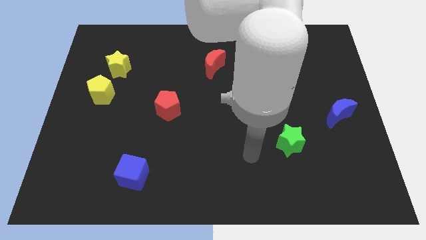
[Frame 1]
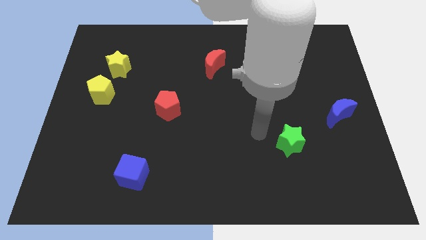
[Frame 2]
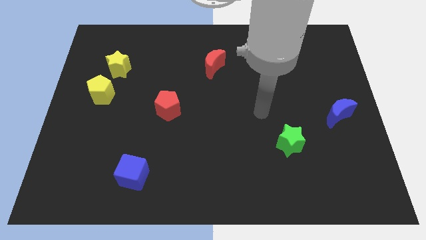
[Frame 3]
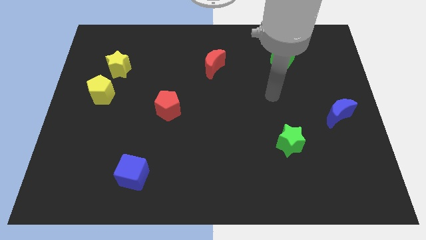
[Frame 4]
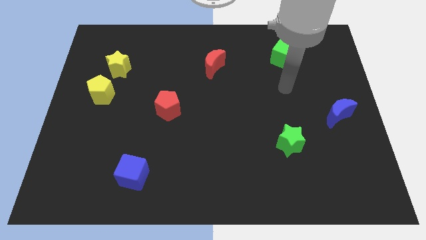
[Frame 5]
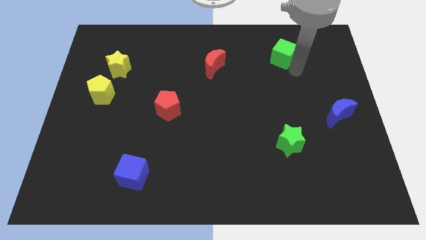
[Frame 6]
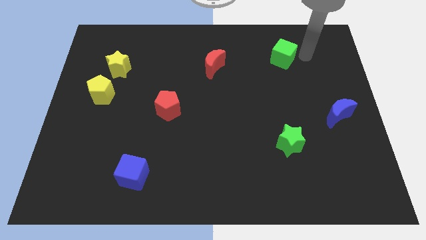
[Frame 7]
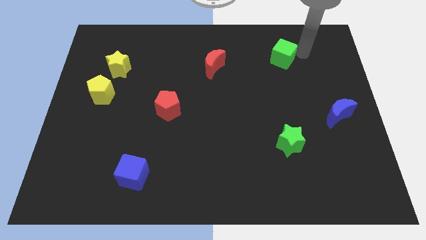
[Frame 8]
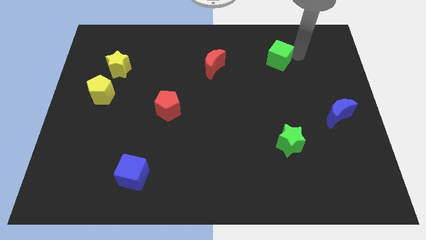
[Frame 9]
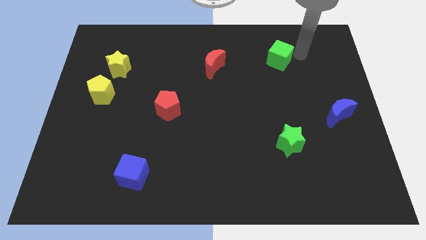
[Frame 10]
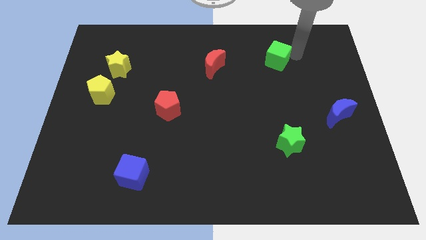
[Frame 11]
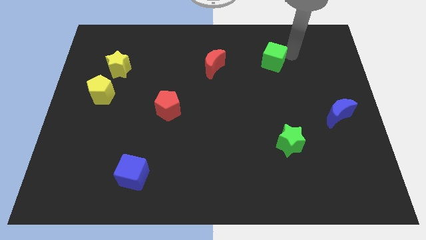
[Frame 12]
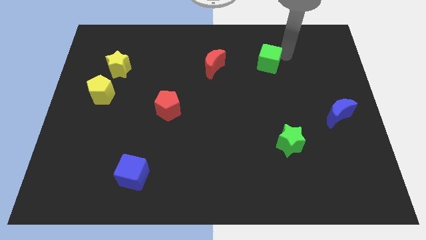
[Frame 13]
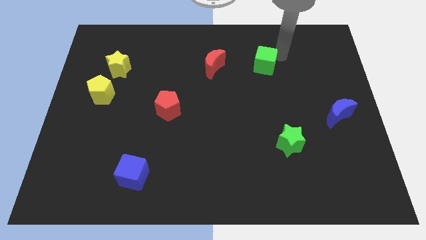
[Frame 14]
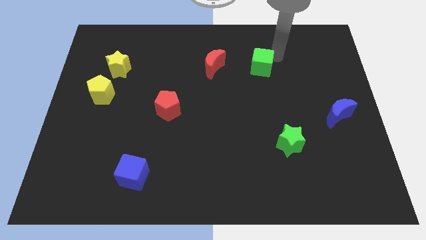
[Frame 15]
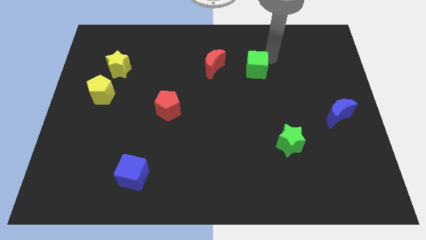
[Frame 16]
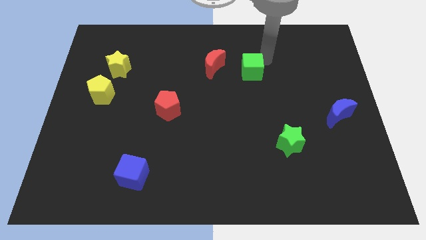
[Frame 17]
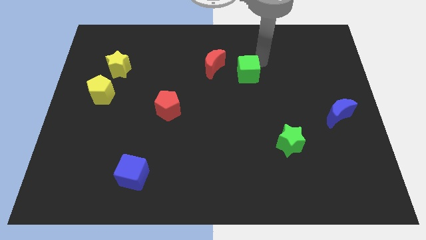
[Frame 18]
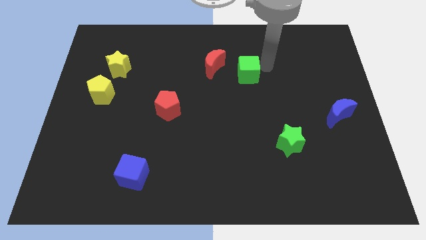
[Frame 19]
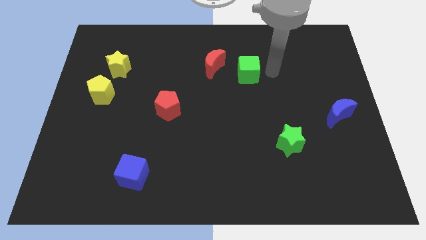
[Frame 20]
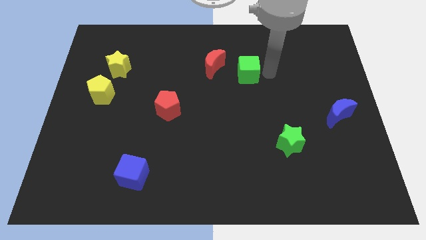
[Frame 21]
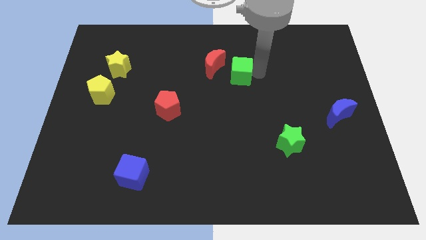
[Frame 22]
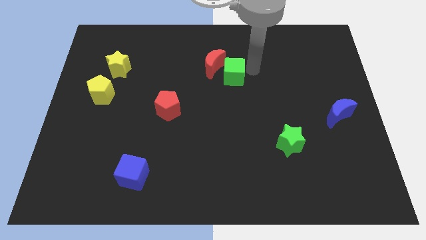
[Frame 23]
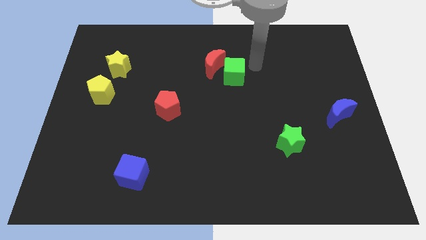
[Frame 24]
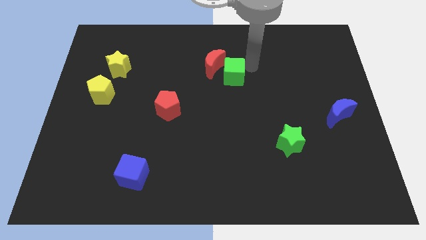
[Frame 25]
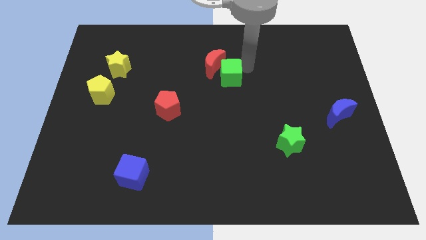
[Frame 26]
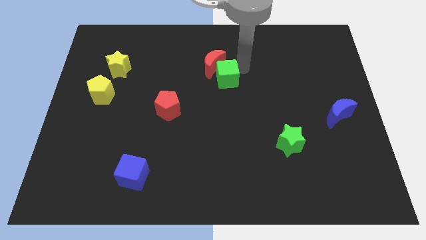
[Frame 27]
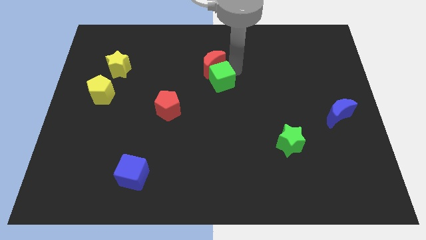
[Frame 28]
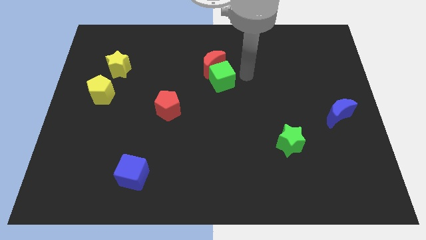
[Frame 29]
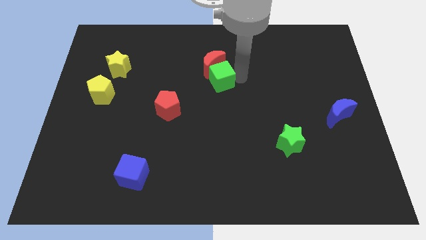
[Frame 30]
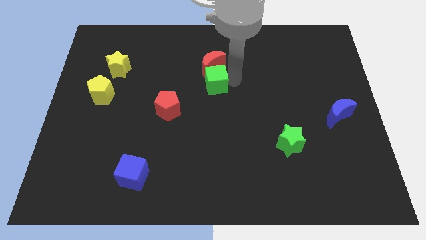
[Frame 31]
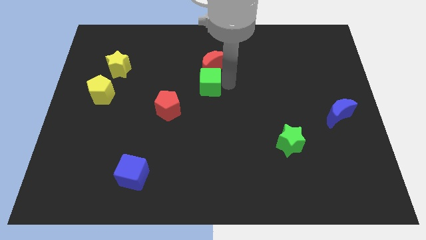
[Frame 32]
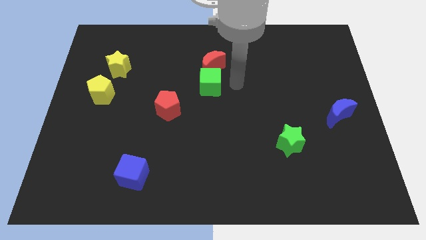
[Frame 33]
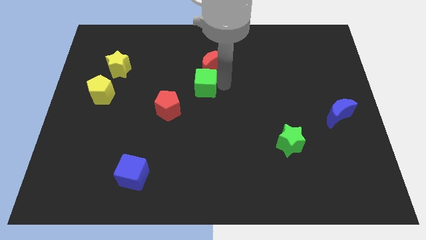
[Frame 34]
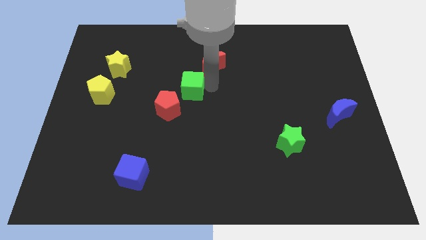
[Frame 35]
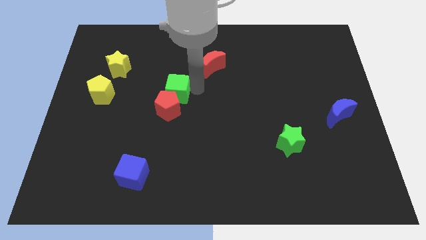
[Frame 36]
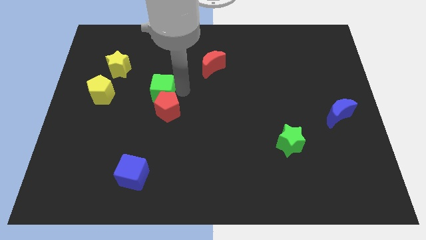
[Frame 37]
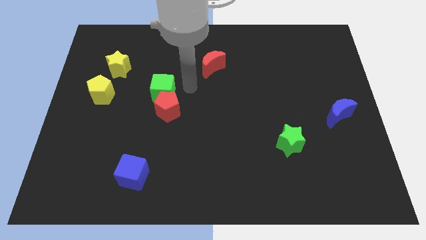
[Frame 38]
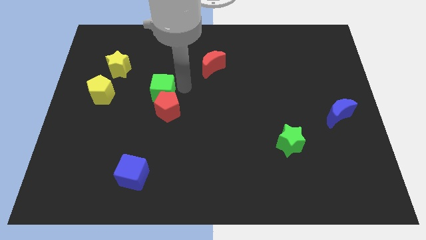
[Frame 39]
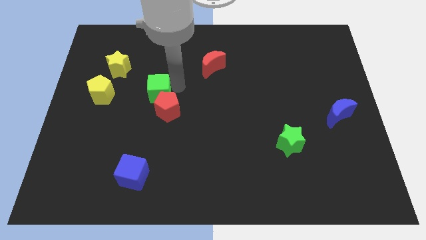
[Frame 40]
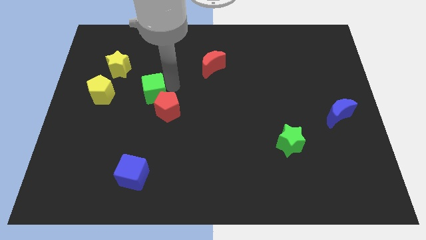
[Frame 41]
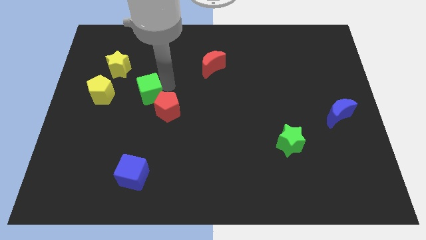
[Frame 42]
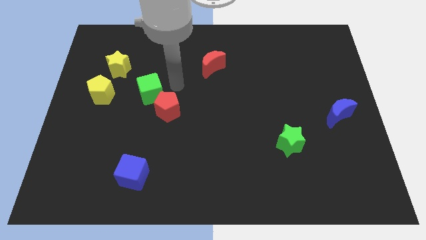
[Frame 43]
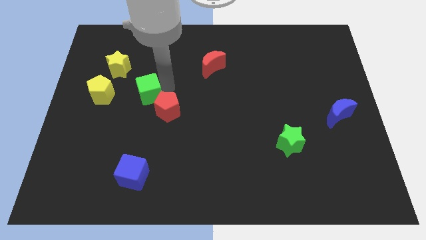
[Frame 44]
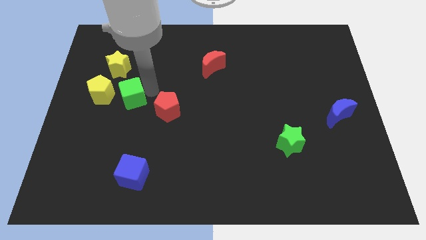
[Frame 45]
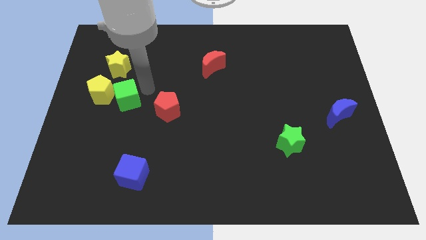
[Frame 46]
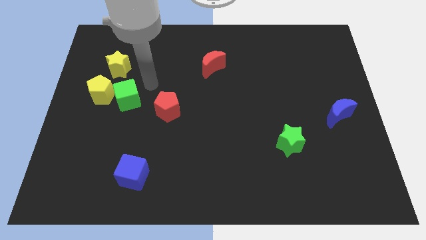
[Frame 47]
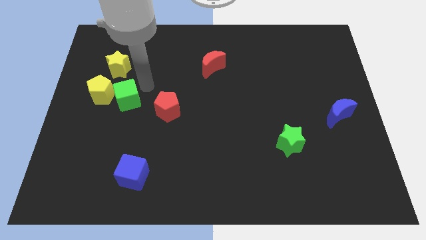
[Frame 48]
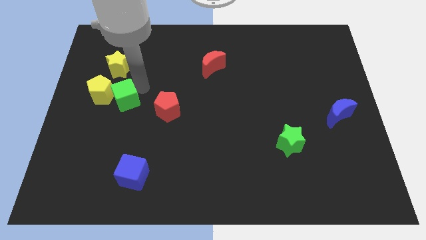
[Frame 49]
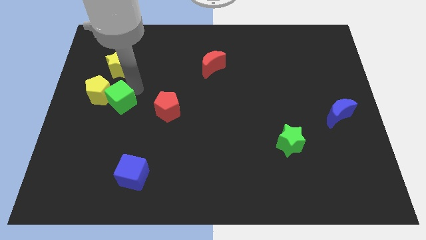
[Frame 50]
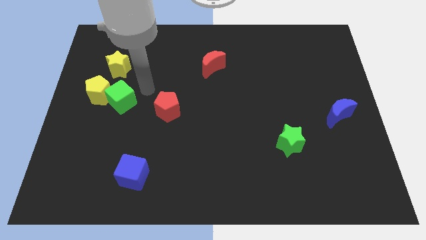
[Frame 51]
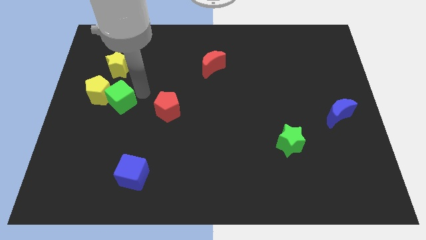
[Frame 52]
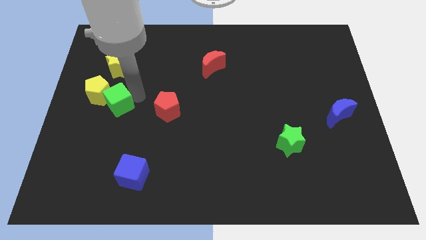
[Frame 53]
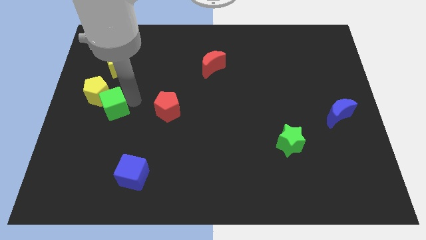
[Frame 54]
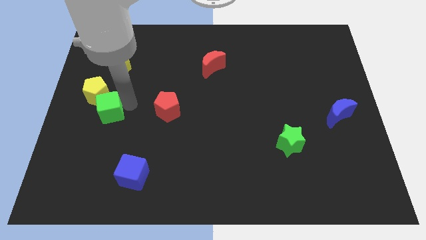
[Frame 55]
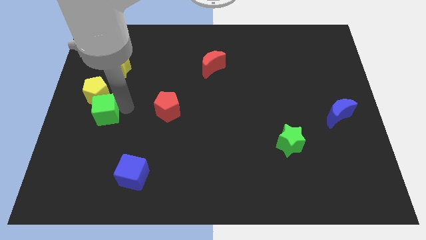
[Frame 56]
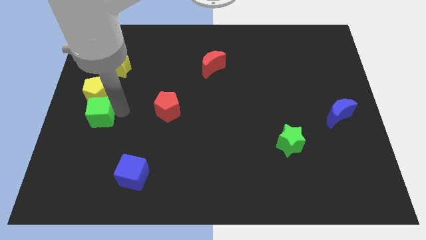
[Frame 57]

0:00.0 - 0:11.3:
put the green cube to the left side
